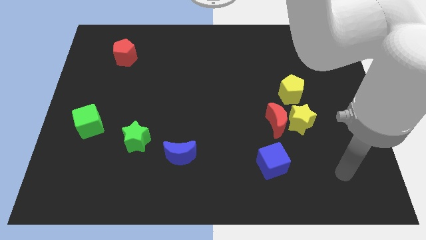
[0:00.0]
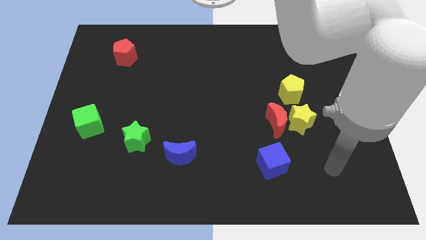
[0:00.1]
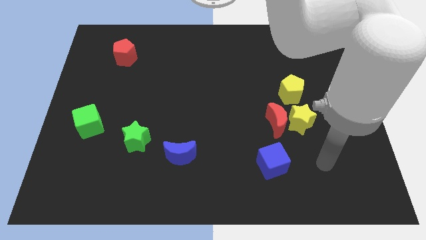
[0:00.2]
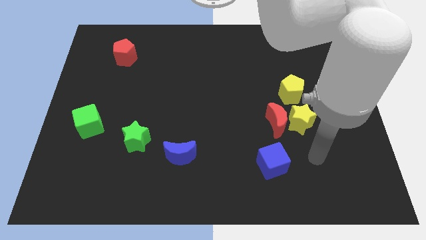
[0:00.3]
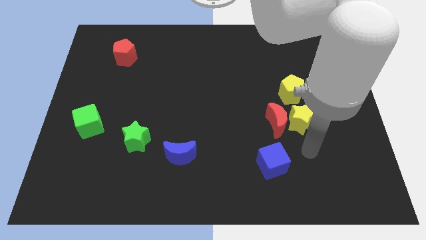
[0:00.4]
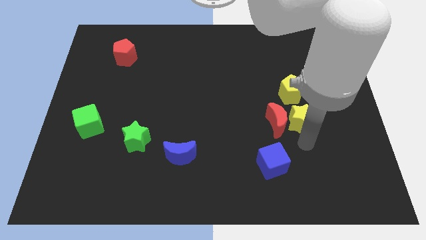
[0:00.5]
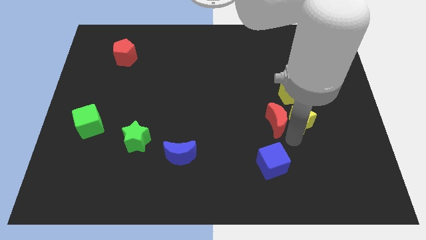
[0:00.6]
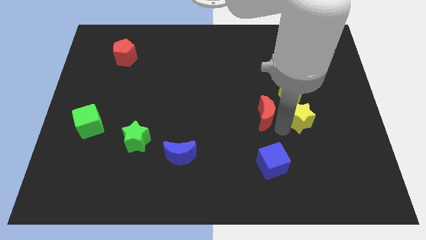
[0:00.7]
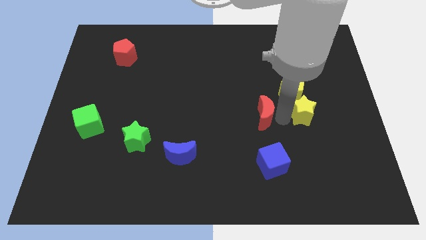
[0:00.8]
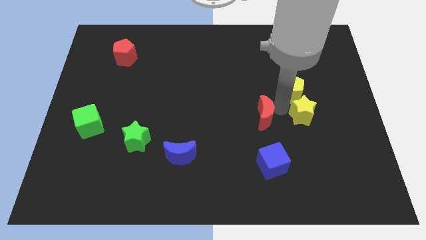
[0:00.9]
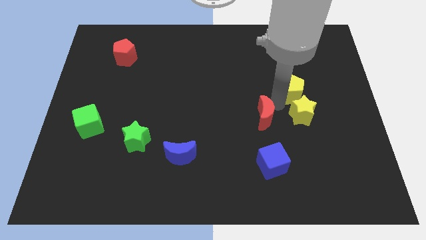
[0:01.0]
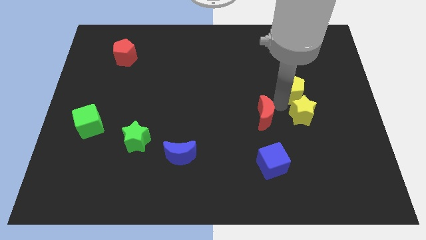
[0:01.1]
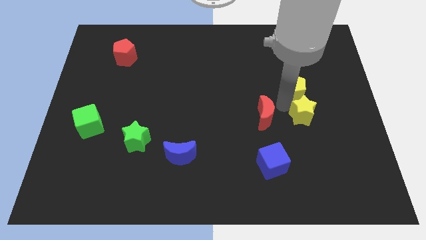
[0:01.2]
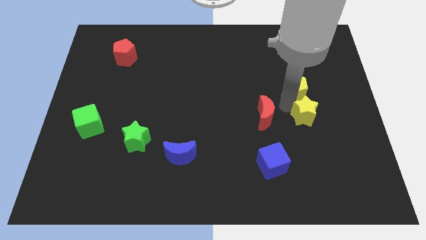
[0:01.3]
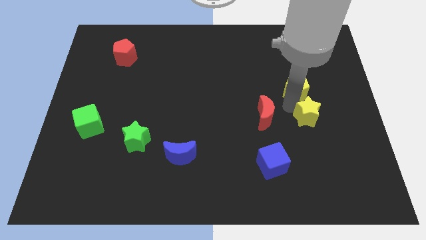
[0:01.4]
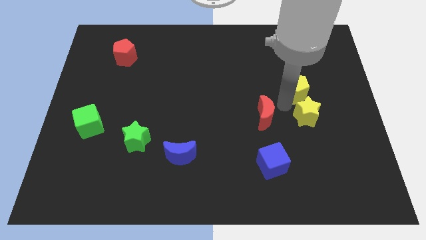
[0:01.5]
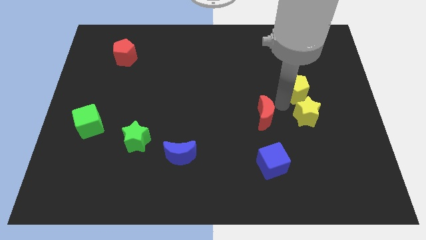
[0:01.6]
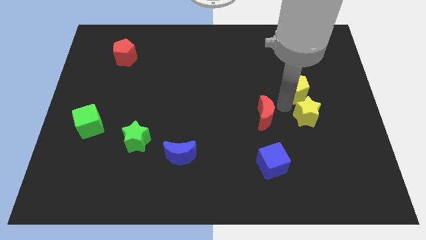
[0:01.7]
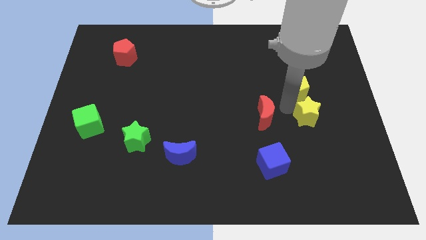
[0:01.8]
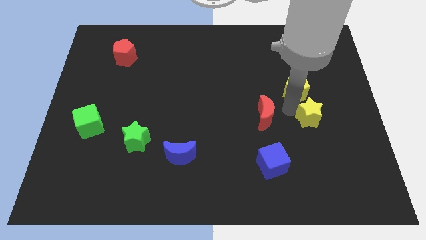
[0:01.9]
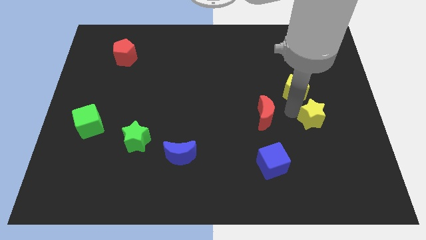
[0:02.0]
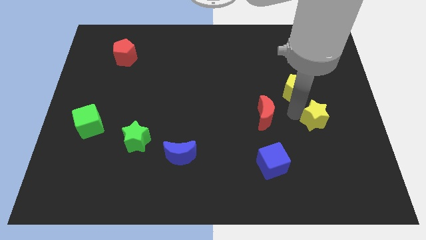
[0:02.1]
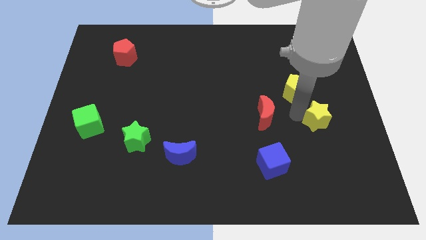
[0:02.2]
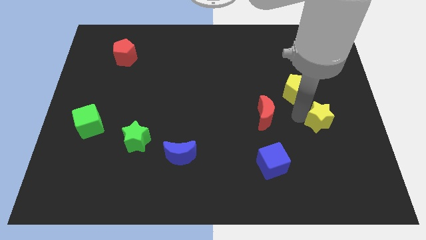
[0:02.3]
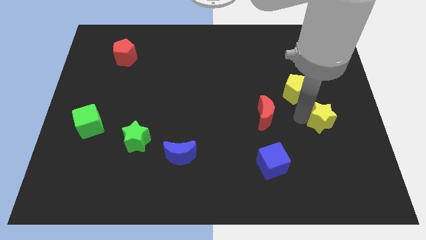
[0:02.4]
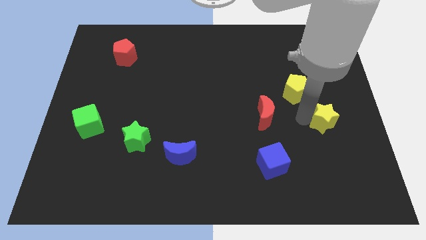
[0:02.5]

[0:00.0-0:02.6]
move the yellow star away from the red moon and yellow pentagon

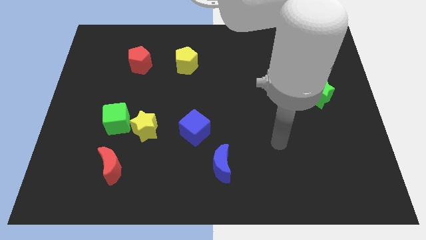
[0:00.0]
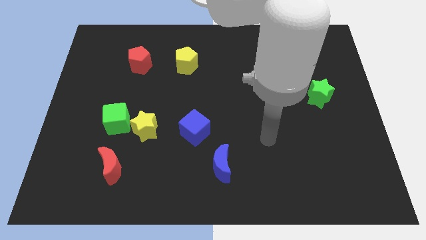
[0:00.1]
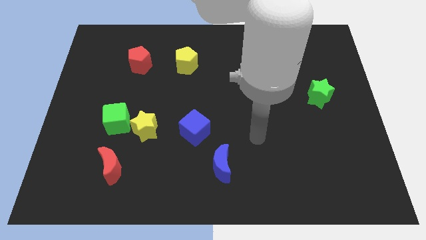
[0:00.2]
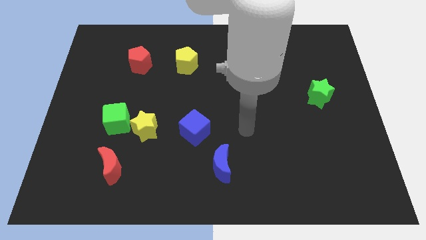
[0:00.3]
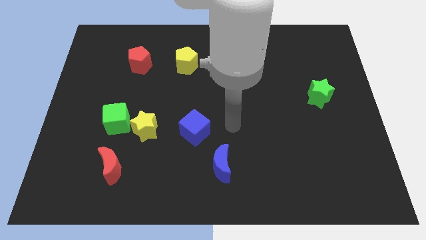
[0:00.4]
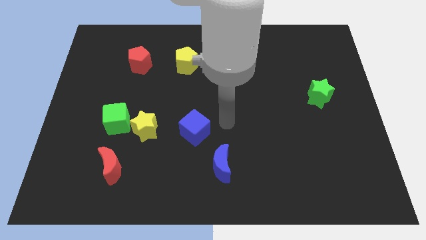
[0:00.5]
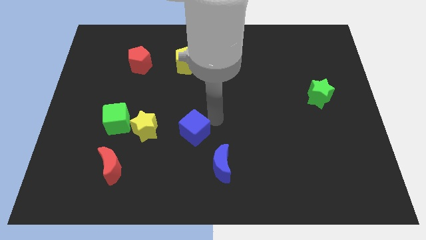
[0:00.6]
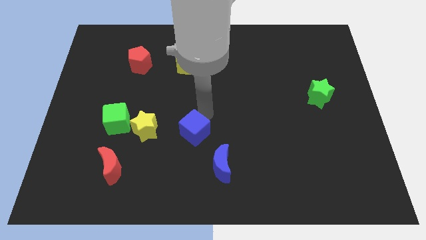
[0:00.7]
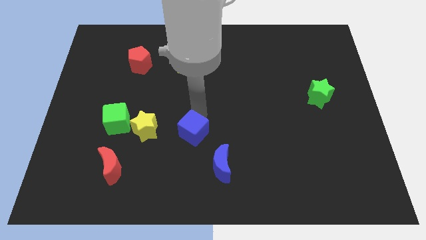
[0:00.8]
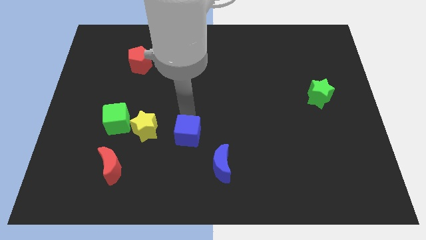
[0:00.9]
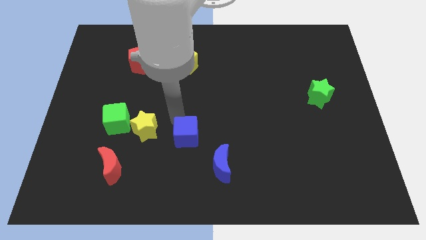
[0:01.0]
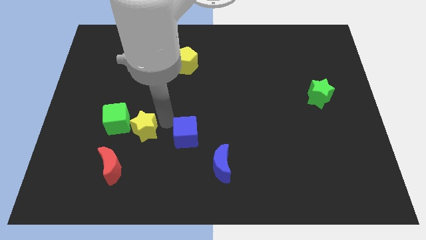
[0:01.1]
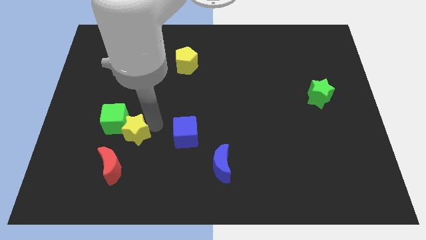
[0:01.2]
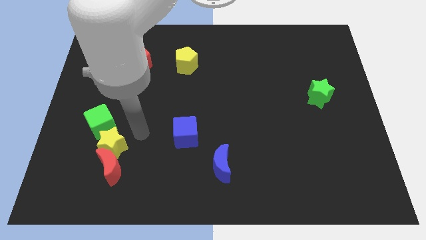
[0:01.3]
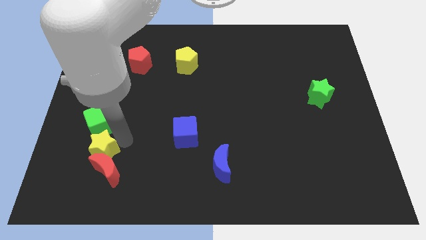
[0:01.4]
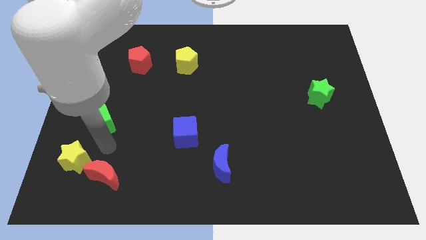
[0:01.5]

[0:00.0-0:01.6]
move the green cube away from the yellow star

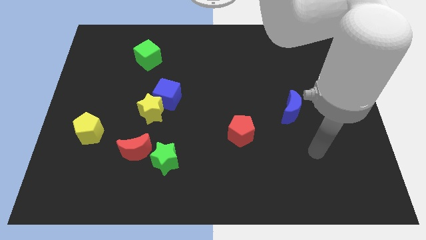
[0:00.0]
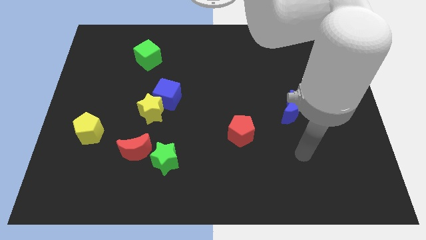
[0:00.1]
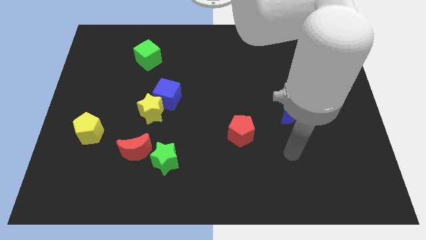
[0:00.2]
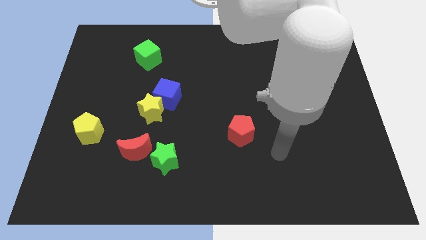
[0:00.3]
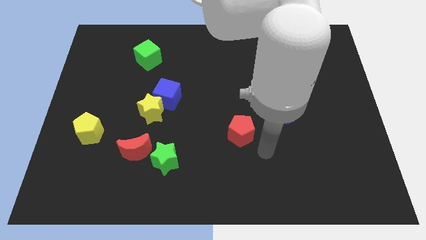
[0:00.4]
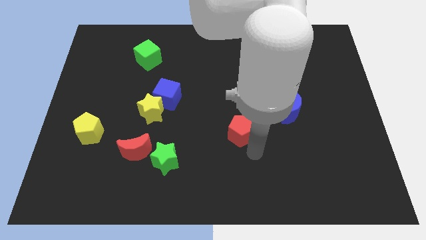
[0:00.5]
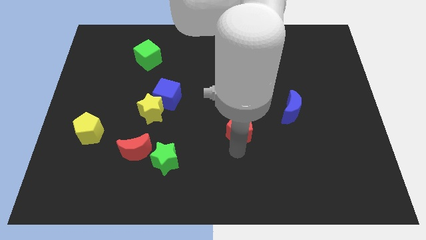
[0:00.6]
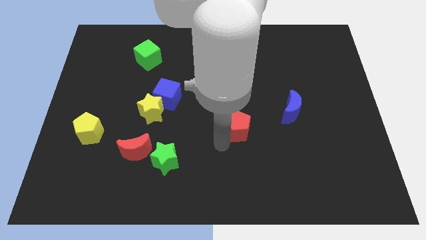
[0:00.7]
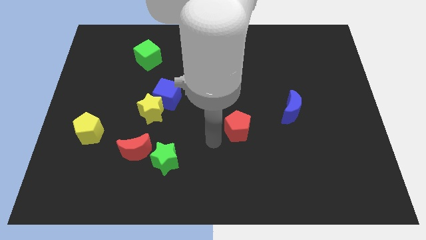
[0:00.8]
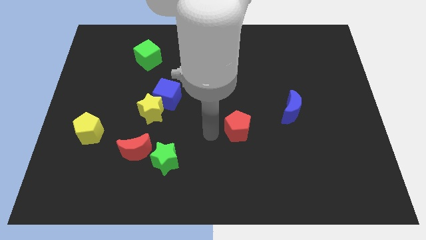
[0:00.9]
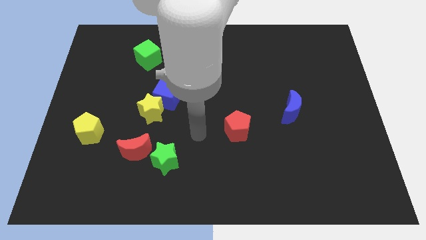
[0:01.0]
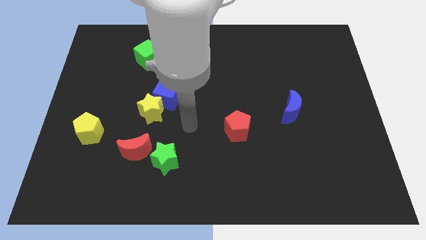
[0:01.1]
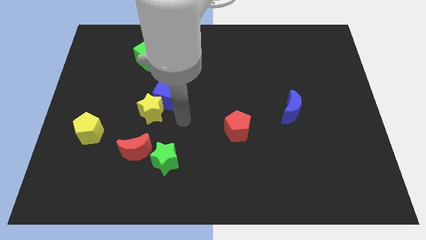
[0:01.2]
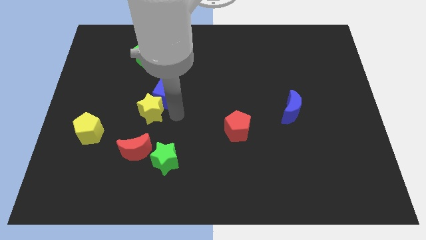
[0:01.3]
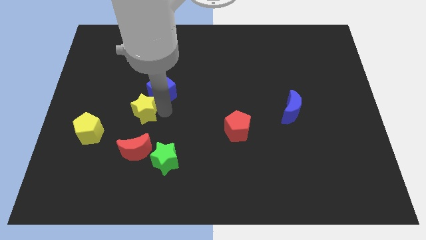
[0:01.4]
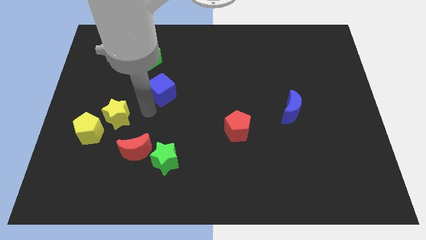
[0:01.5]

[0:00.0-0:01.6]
separate the blue cube from the yellow star

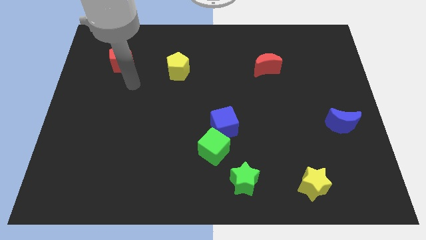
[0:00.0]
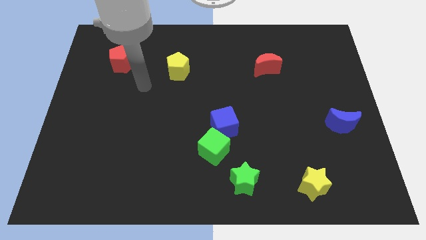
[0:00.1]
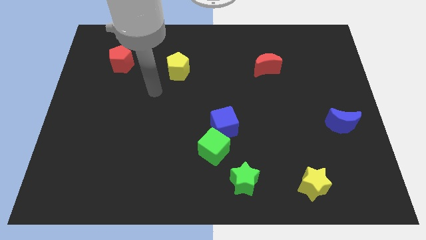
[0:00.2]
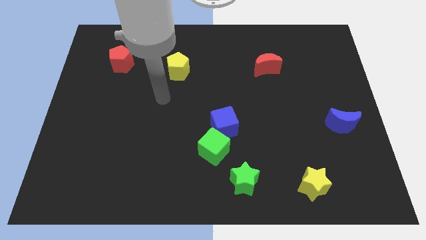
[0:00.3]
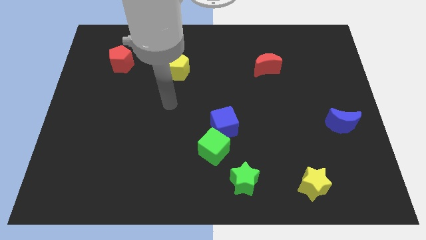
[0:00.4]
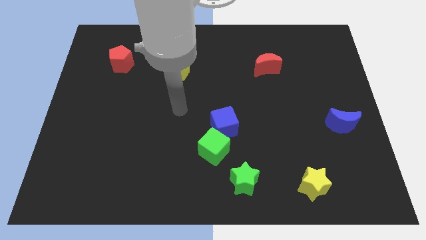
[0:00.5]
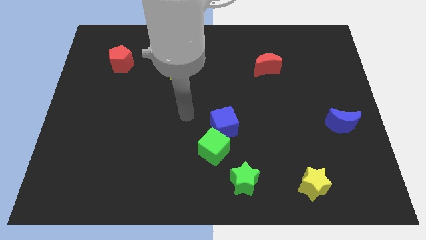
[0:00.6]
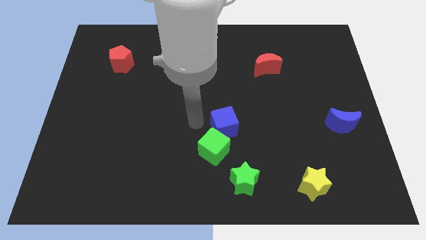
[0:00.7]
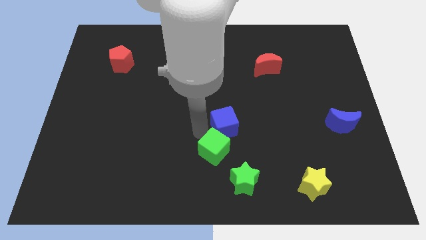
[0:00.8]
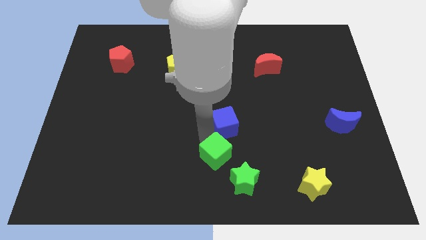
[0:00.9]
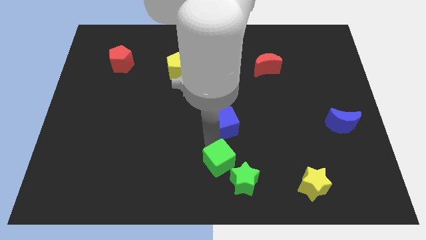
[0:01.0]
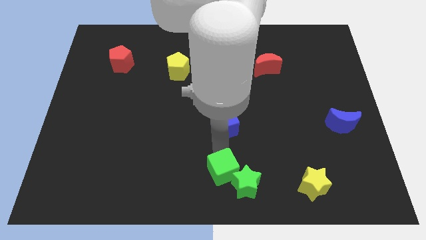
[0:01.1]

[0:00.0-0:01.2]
separate the blue cube from the green cube

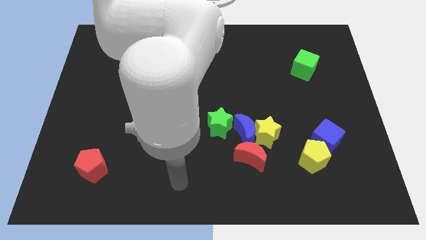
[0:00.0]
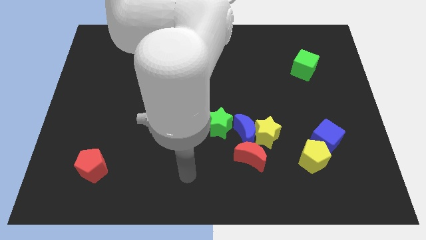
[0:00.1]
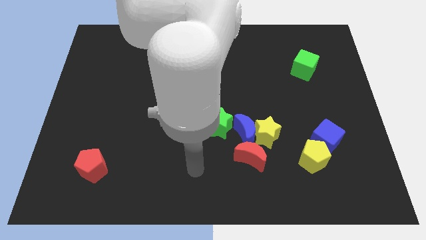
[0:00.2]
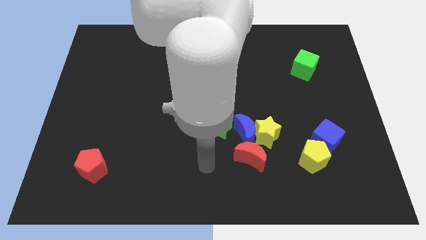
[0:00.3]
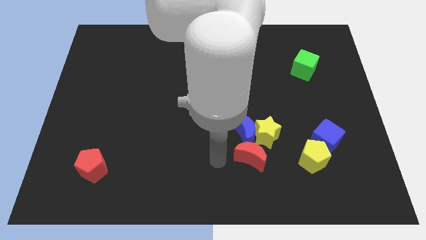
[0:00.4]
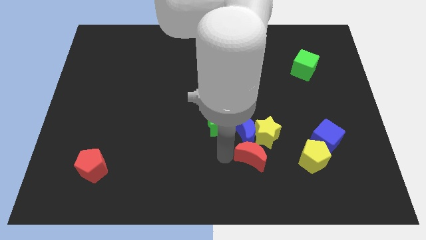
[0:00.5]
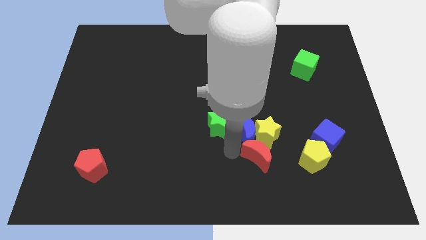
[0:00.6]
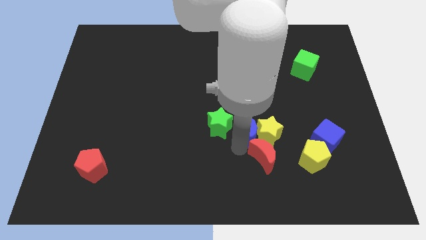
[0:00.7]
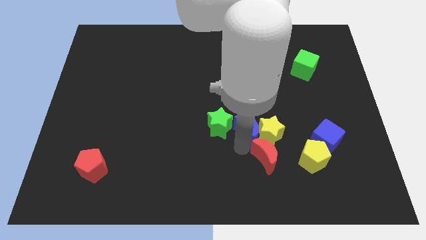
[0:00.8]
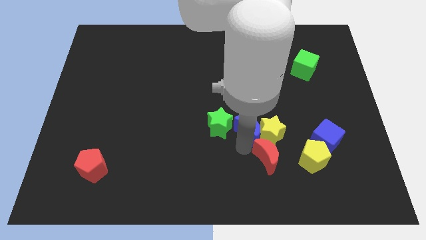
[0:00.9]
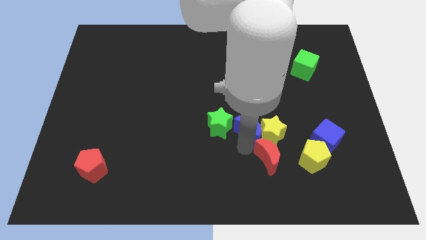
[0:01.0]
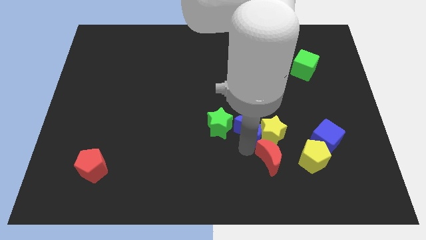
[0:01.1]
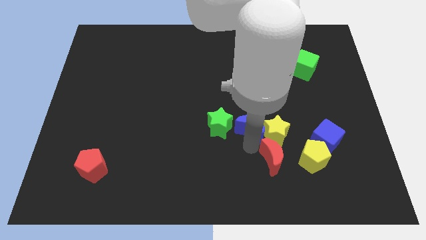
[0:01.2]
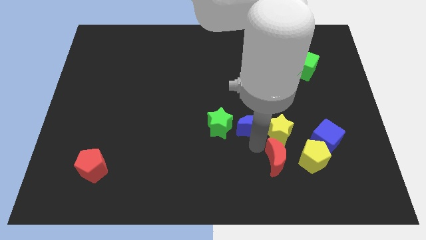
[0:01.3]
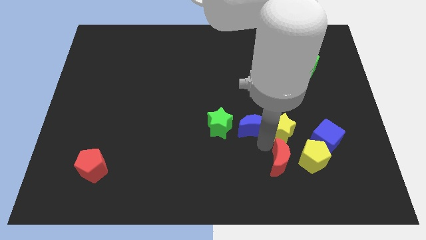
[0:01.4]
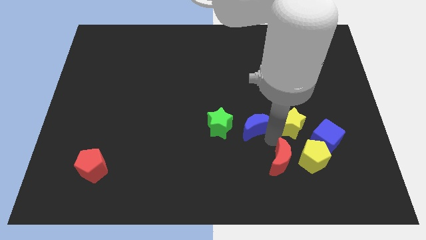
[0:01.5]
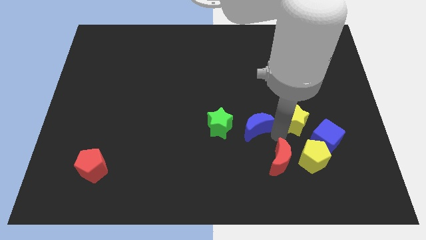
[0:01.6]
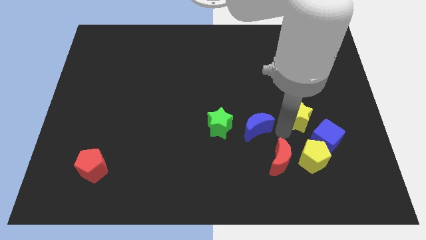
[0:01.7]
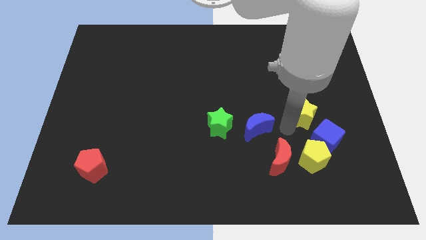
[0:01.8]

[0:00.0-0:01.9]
separate the yellow star from the blue moon and red moon

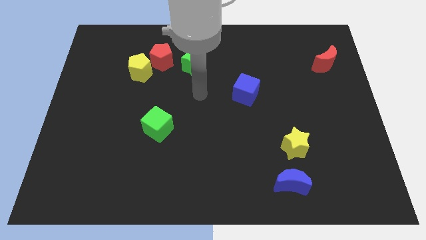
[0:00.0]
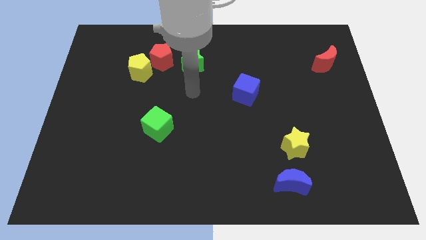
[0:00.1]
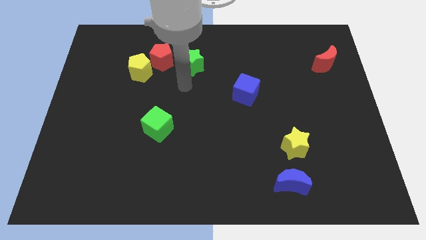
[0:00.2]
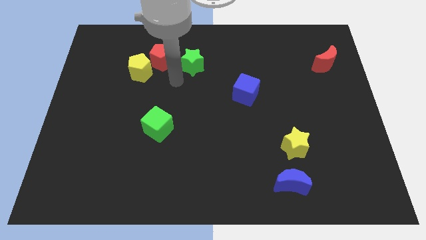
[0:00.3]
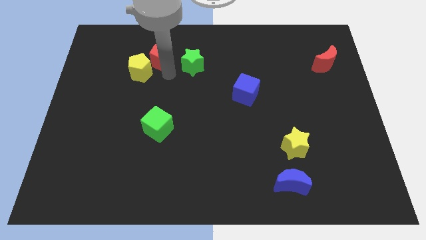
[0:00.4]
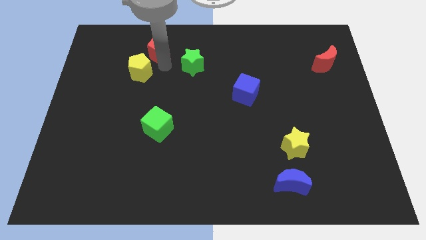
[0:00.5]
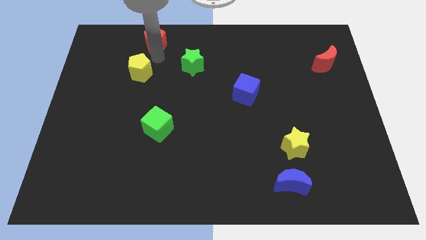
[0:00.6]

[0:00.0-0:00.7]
pull the yellow pentagon apart from the red pentagon
